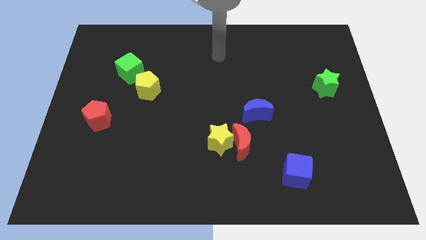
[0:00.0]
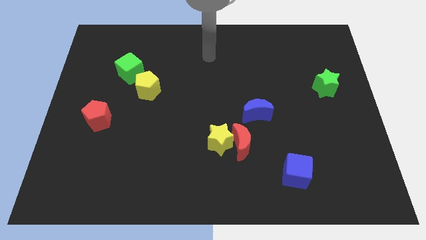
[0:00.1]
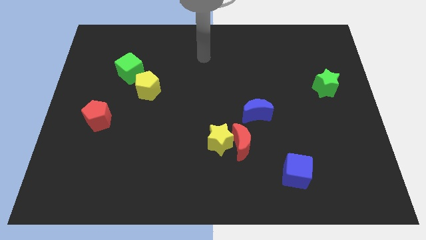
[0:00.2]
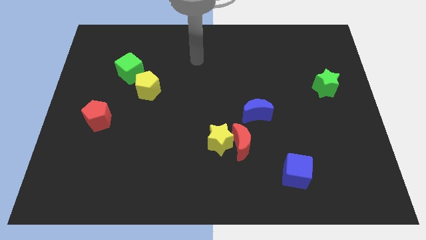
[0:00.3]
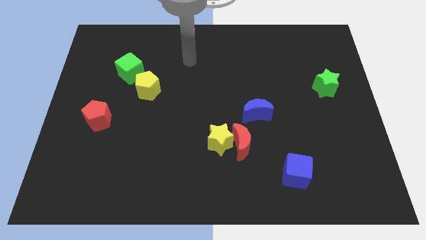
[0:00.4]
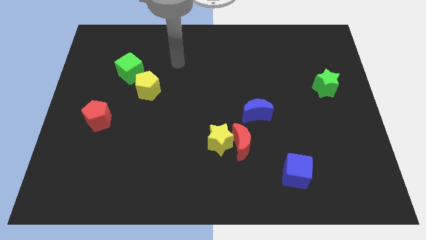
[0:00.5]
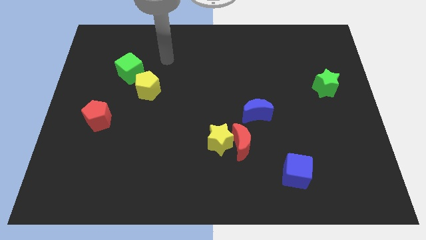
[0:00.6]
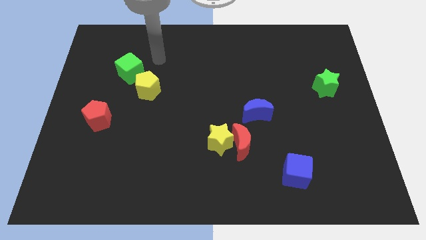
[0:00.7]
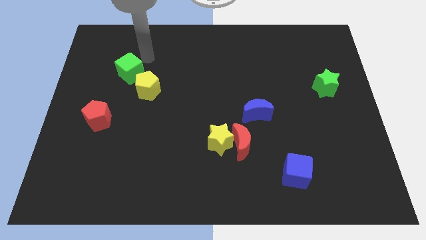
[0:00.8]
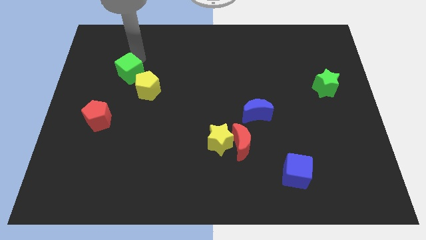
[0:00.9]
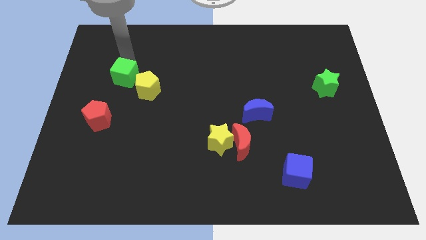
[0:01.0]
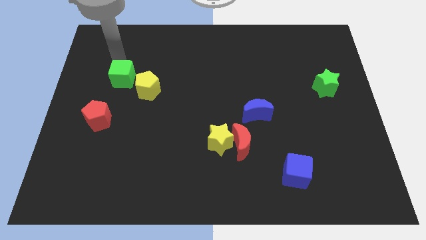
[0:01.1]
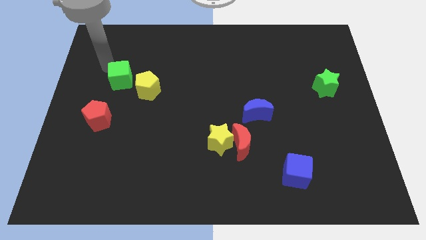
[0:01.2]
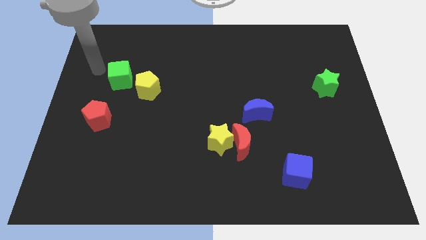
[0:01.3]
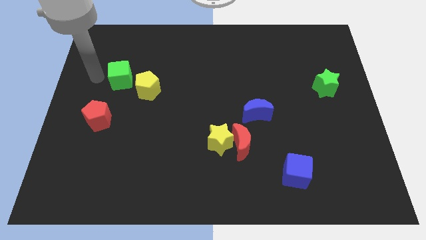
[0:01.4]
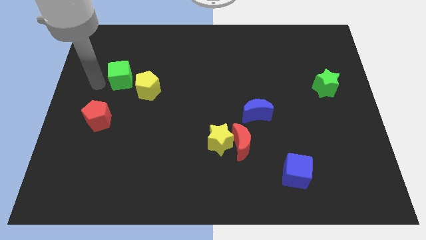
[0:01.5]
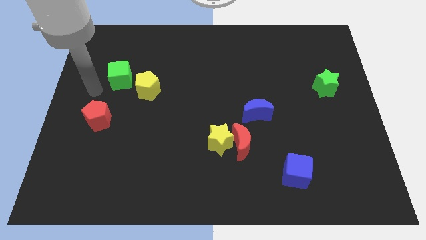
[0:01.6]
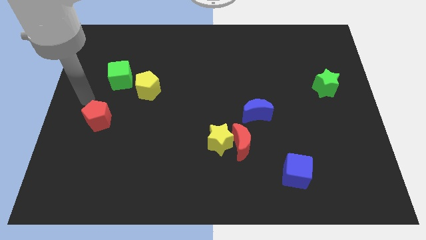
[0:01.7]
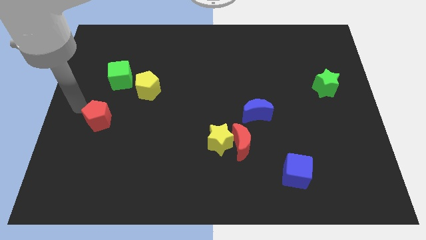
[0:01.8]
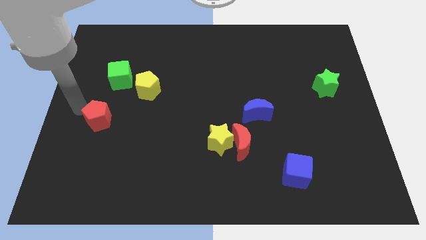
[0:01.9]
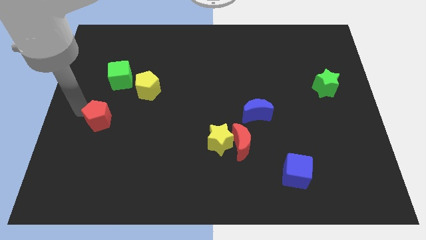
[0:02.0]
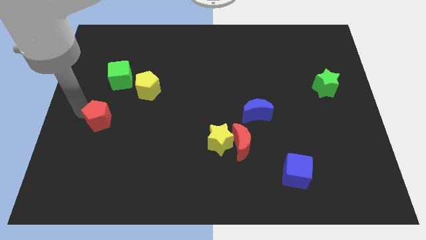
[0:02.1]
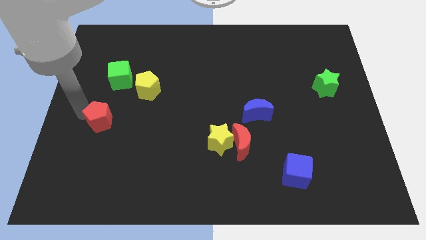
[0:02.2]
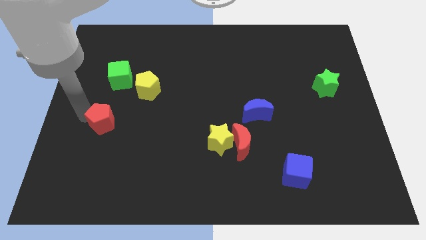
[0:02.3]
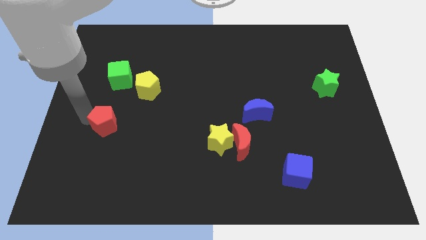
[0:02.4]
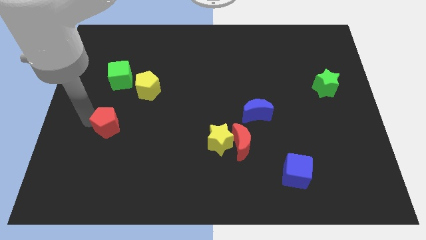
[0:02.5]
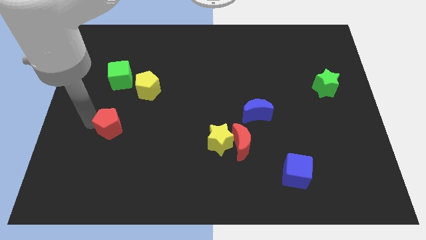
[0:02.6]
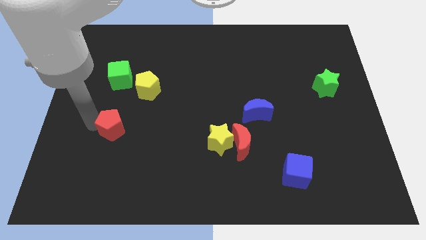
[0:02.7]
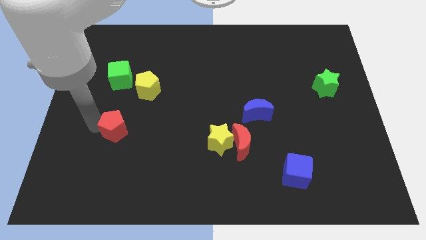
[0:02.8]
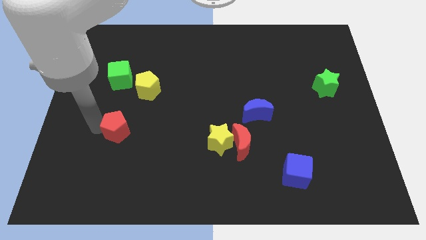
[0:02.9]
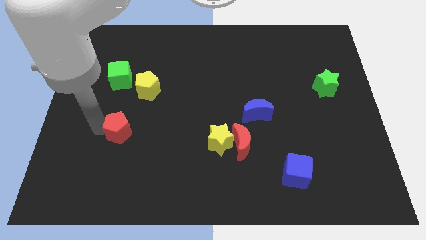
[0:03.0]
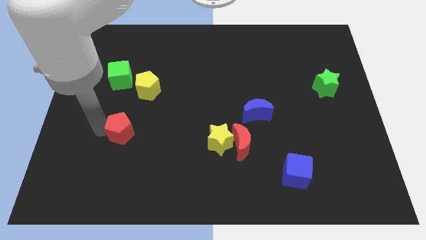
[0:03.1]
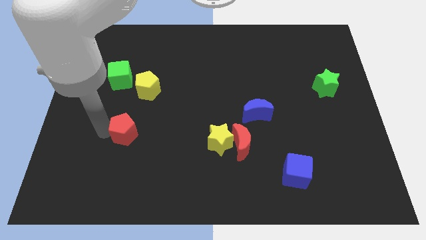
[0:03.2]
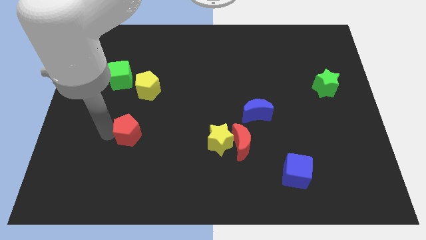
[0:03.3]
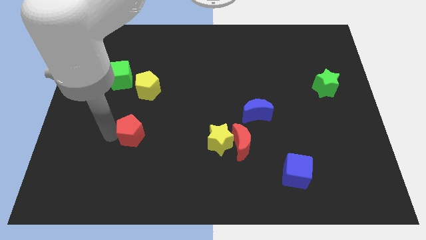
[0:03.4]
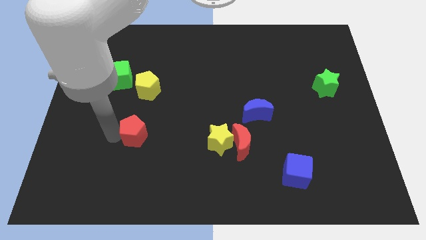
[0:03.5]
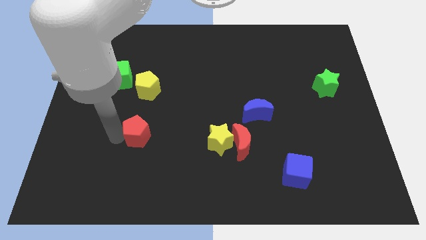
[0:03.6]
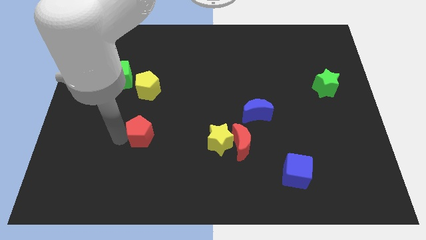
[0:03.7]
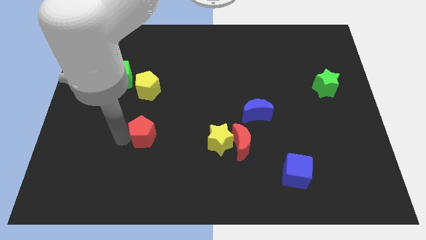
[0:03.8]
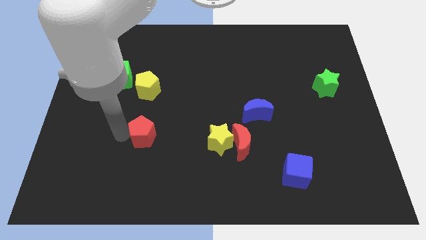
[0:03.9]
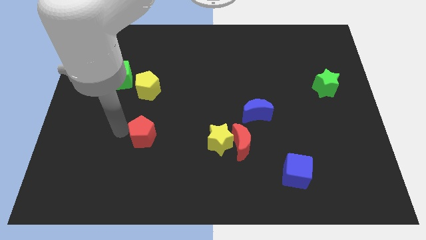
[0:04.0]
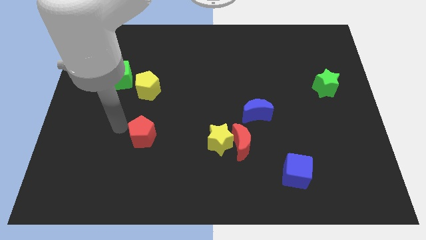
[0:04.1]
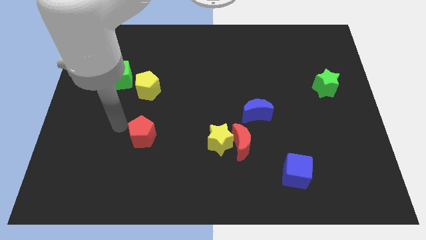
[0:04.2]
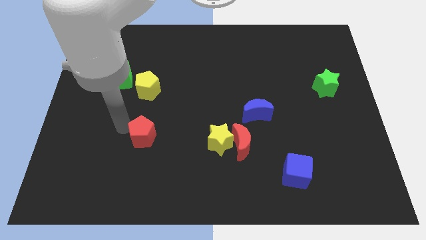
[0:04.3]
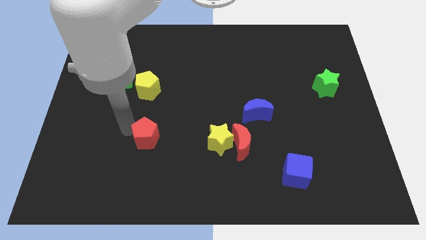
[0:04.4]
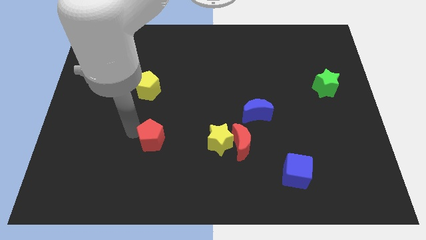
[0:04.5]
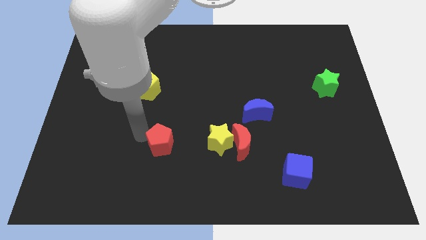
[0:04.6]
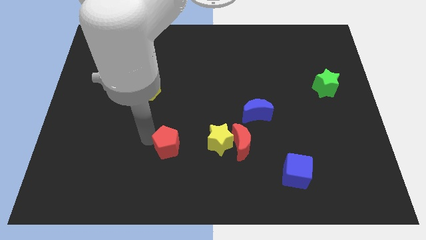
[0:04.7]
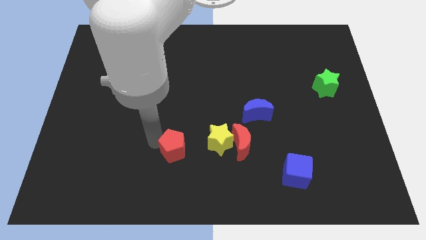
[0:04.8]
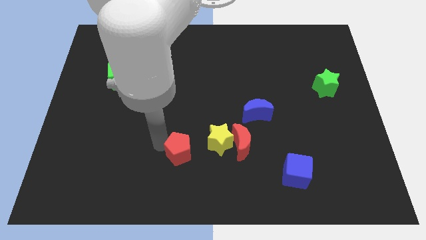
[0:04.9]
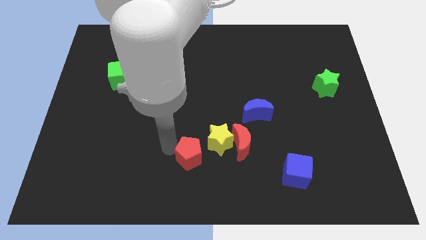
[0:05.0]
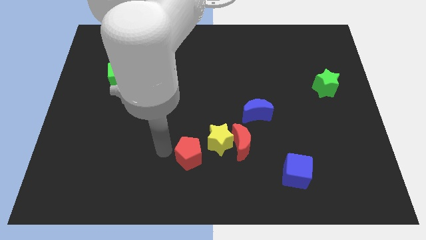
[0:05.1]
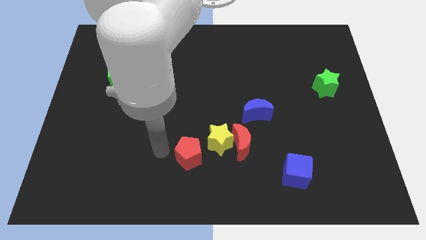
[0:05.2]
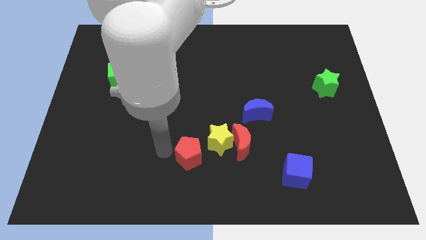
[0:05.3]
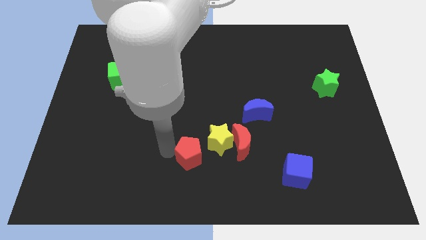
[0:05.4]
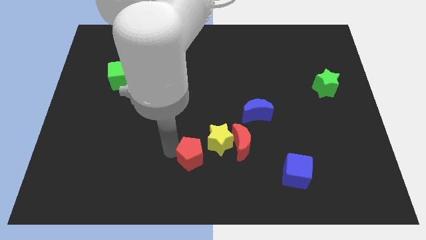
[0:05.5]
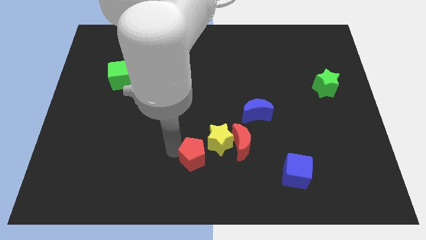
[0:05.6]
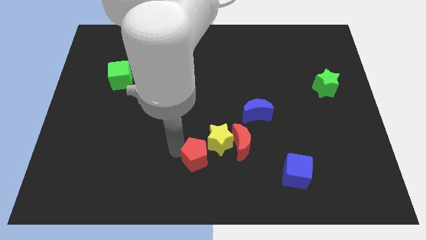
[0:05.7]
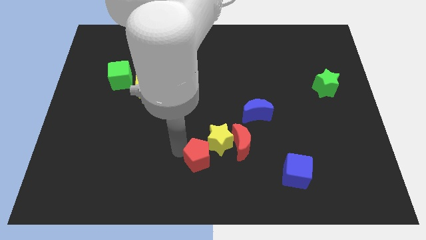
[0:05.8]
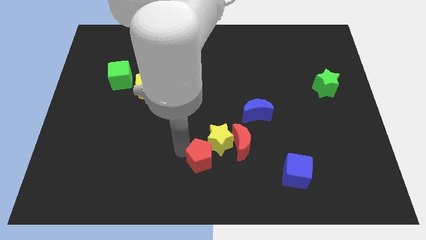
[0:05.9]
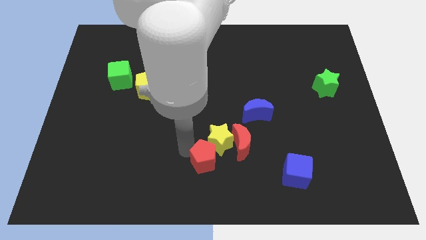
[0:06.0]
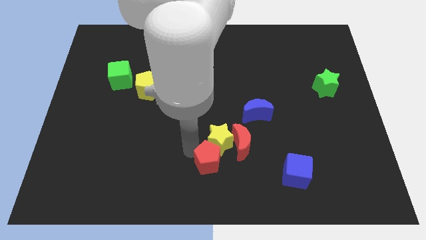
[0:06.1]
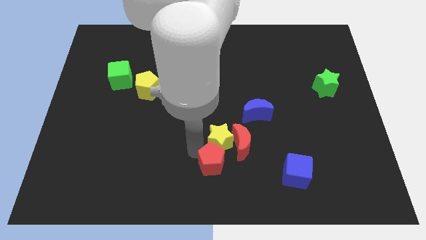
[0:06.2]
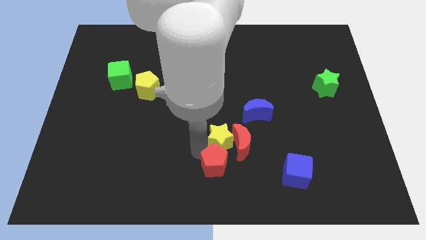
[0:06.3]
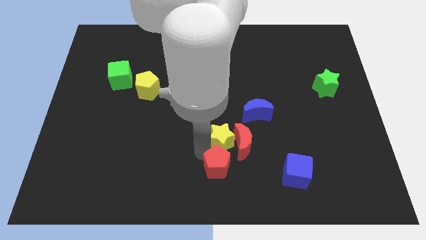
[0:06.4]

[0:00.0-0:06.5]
push the red pentagon to the left of the blue cube

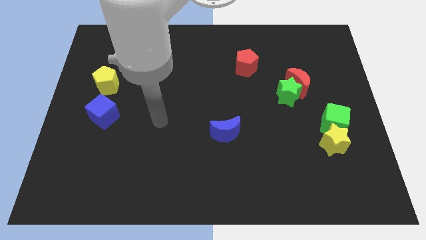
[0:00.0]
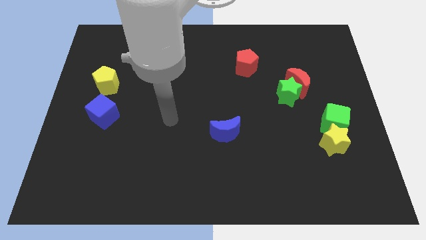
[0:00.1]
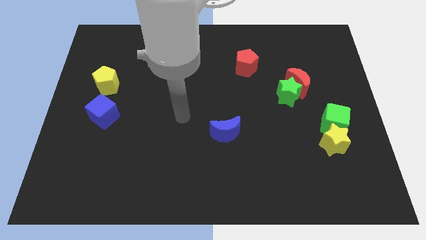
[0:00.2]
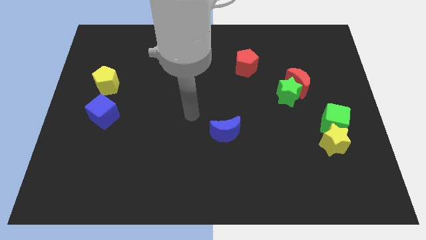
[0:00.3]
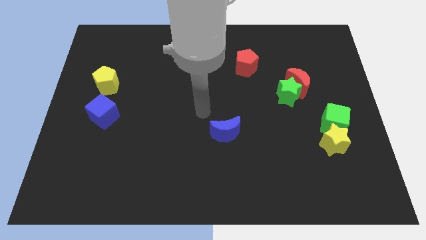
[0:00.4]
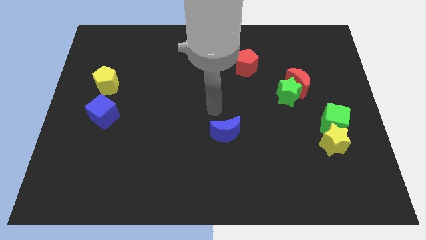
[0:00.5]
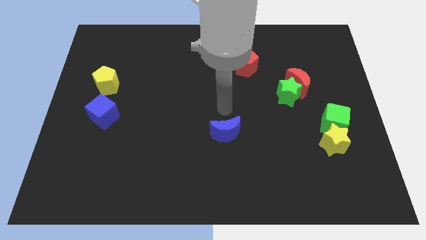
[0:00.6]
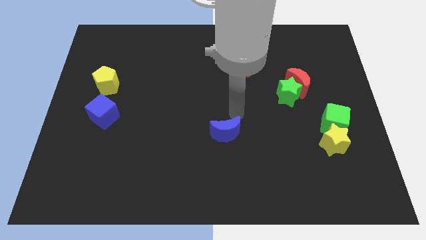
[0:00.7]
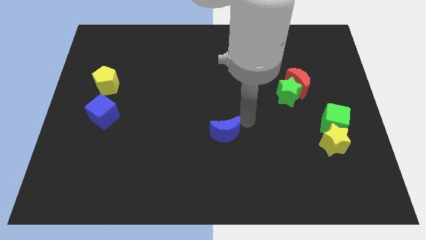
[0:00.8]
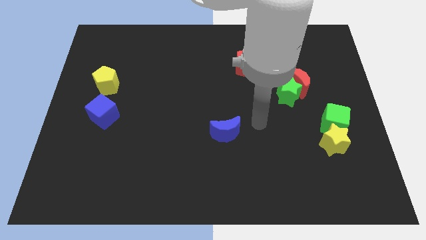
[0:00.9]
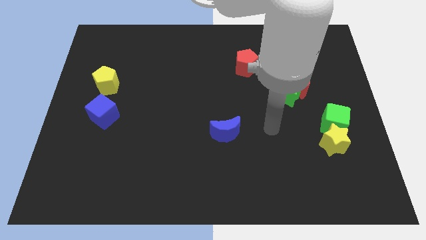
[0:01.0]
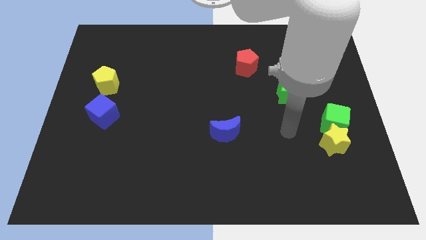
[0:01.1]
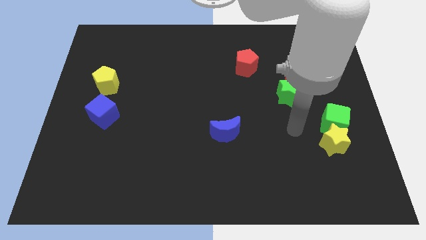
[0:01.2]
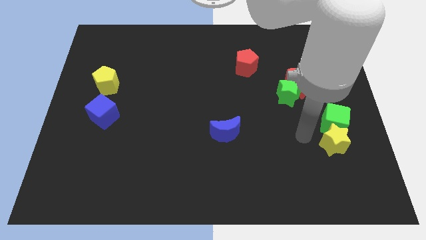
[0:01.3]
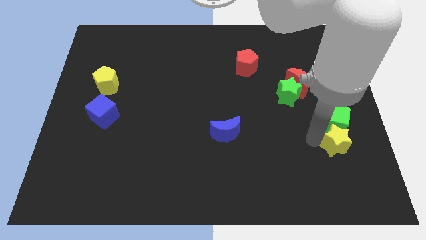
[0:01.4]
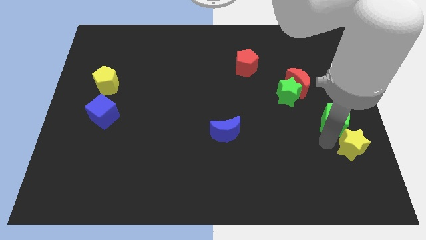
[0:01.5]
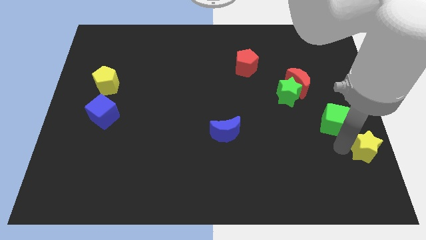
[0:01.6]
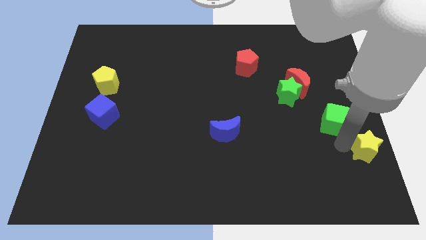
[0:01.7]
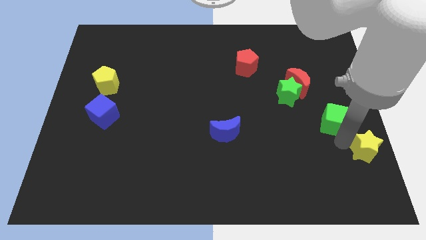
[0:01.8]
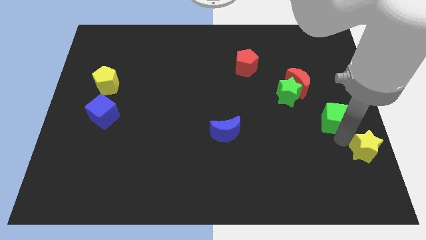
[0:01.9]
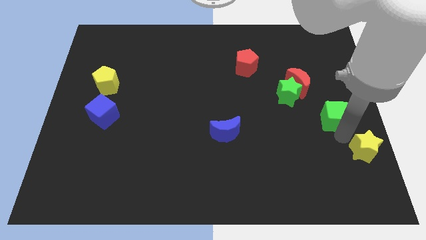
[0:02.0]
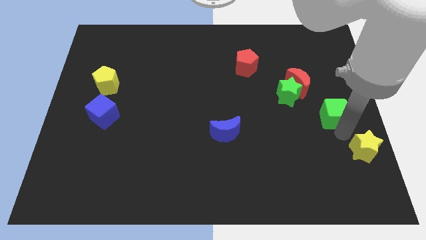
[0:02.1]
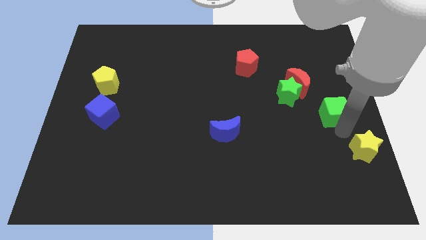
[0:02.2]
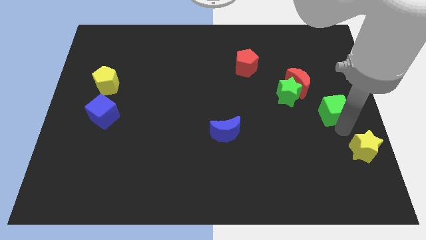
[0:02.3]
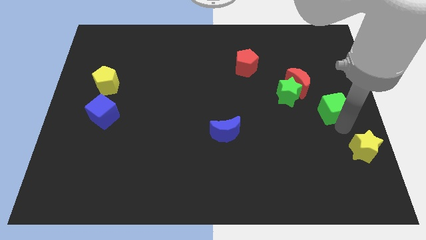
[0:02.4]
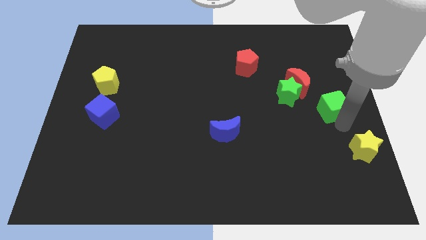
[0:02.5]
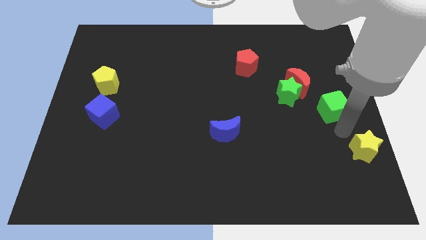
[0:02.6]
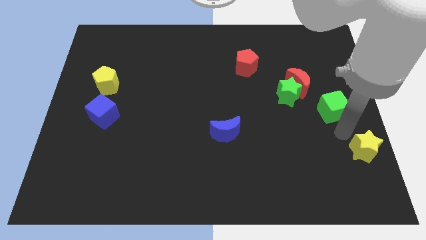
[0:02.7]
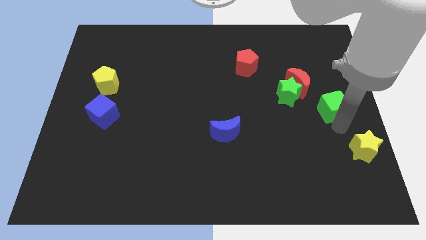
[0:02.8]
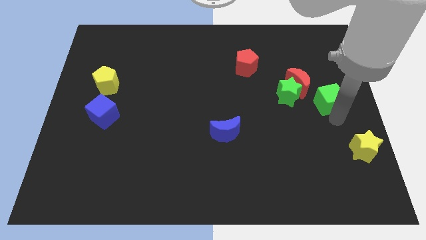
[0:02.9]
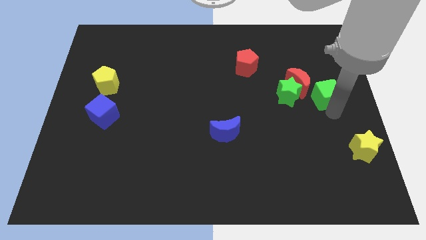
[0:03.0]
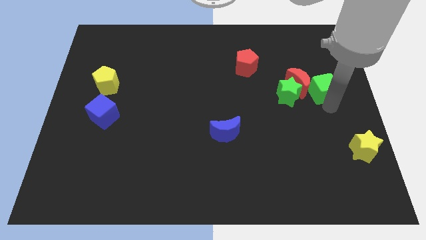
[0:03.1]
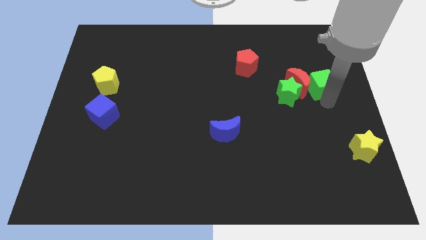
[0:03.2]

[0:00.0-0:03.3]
slide the green cube diagonally up and to the right of the red moon
